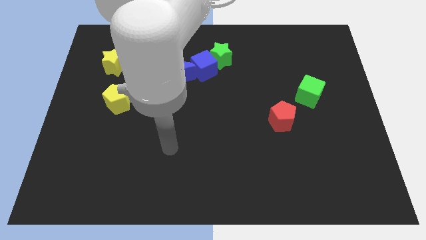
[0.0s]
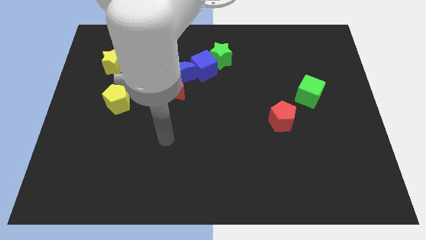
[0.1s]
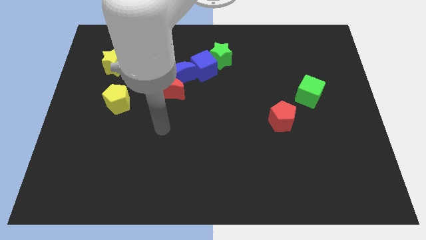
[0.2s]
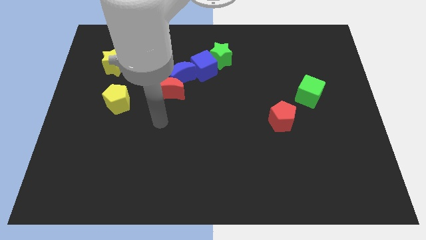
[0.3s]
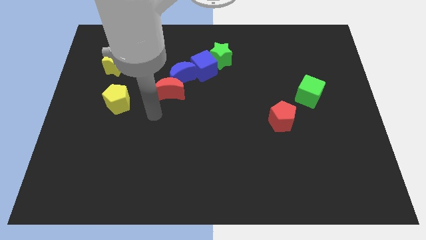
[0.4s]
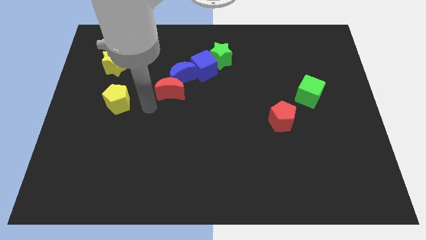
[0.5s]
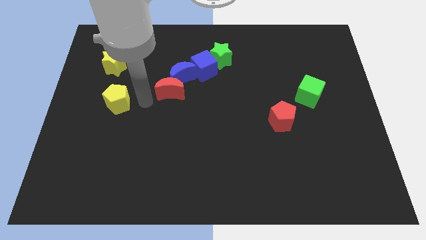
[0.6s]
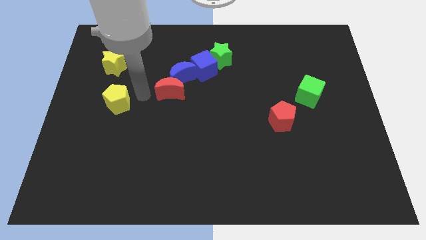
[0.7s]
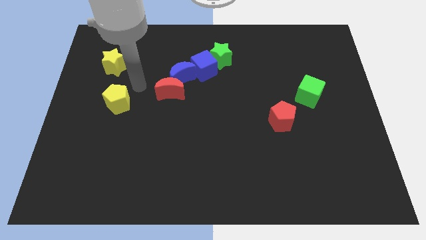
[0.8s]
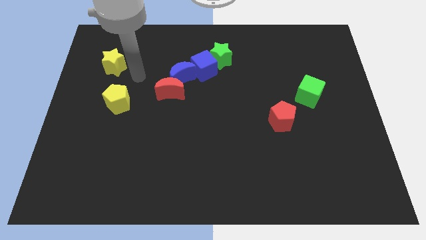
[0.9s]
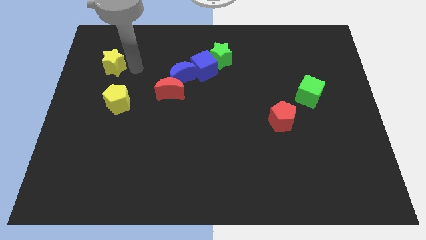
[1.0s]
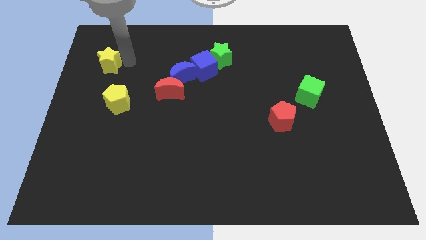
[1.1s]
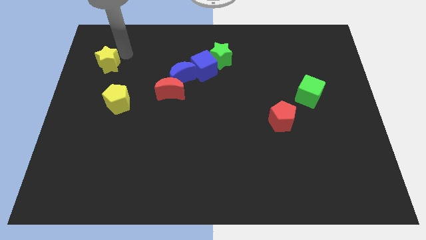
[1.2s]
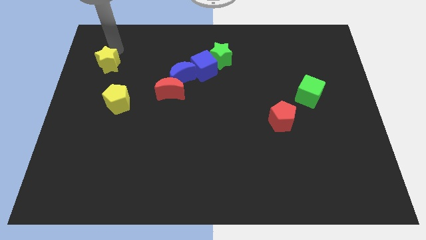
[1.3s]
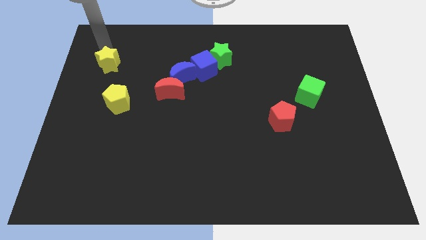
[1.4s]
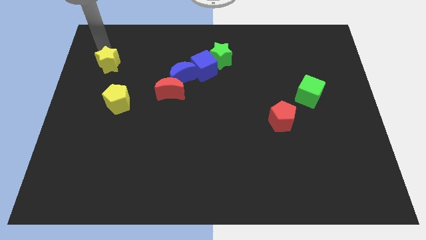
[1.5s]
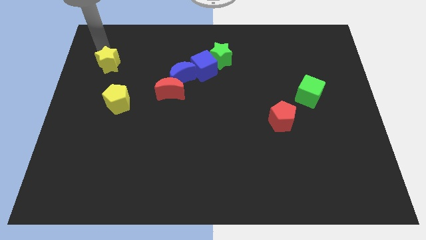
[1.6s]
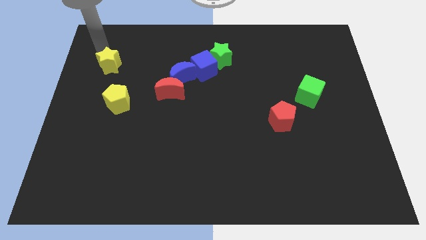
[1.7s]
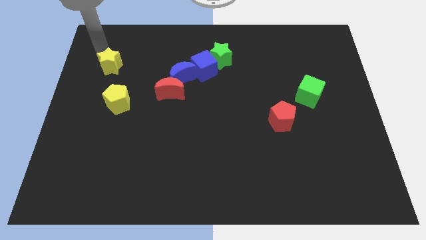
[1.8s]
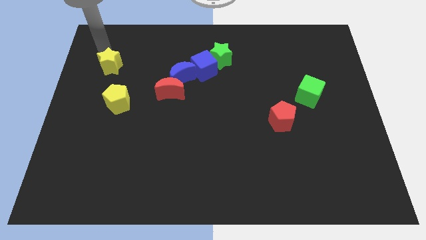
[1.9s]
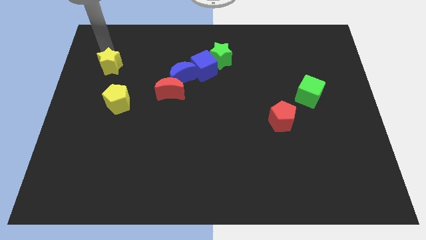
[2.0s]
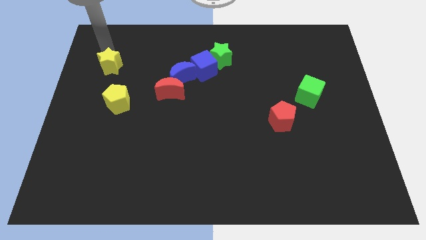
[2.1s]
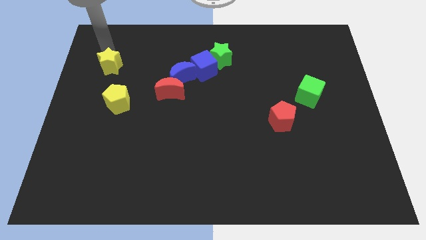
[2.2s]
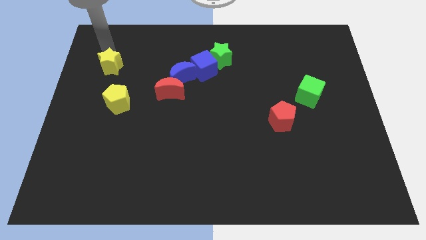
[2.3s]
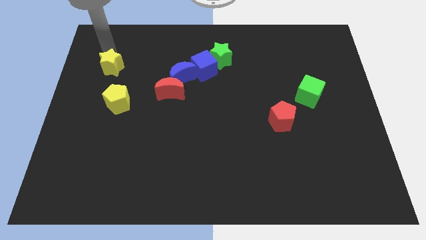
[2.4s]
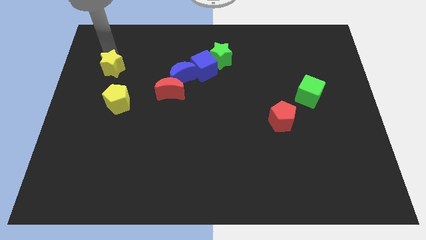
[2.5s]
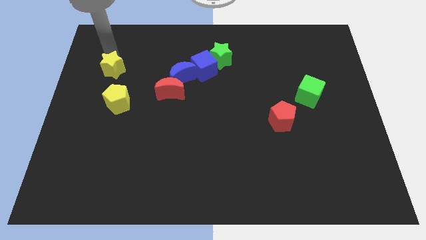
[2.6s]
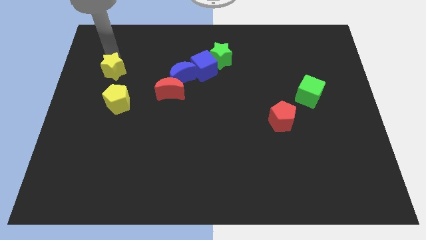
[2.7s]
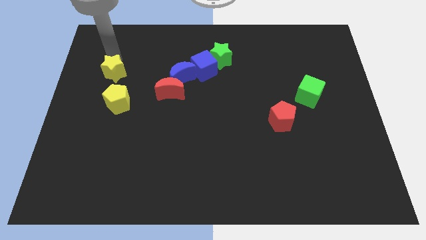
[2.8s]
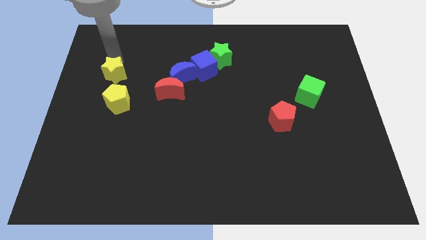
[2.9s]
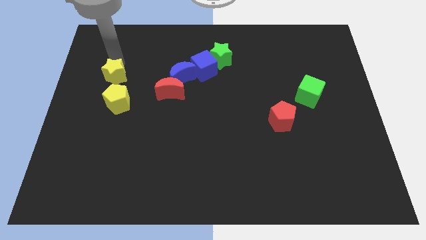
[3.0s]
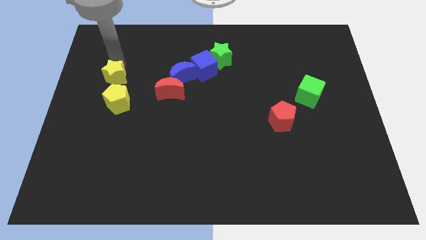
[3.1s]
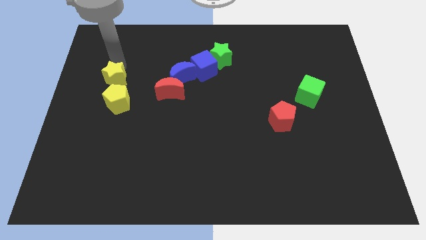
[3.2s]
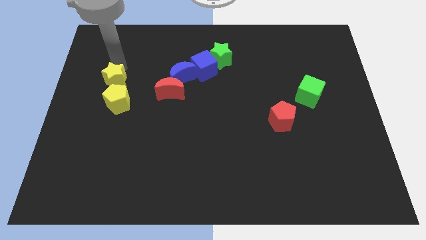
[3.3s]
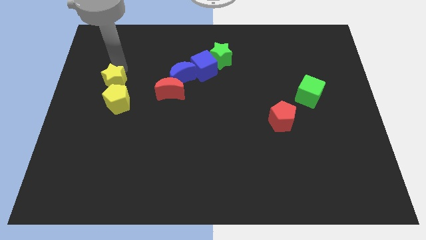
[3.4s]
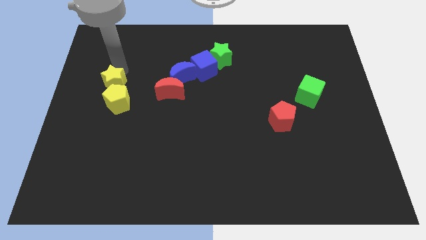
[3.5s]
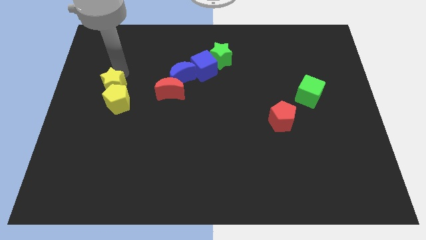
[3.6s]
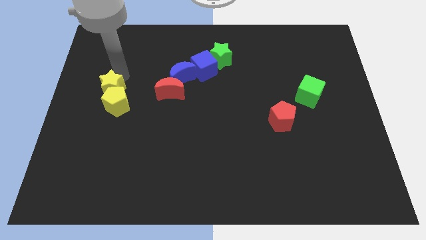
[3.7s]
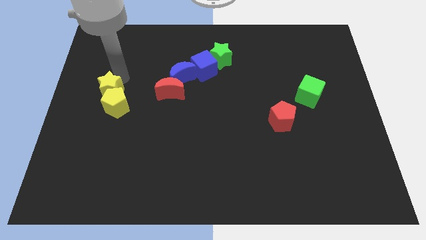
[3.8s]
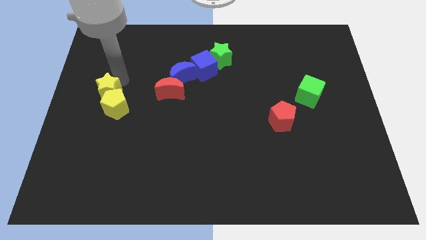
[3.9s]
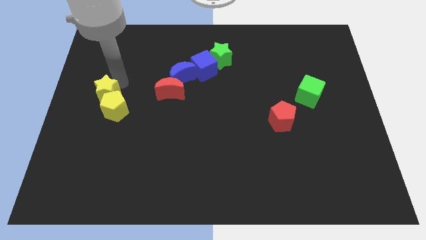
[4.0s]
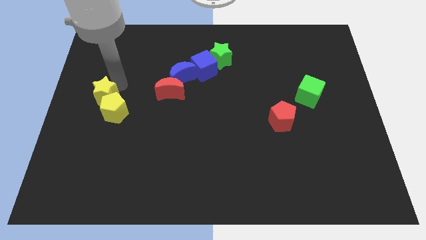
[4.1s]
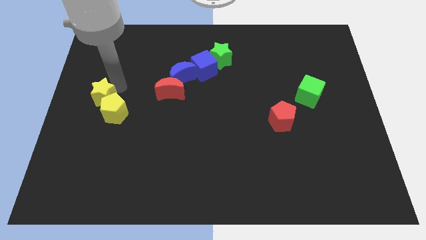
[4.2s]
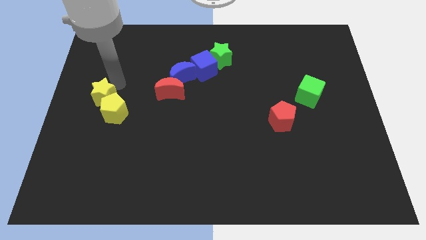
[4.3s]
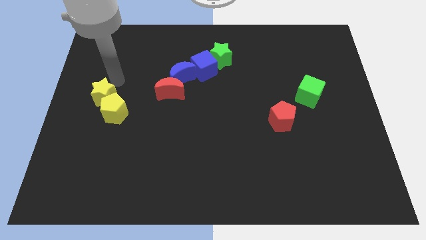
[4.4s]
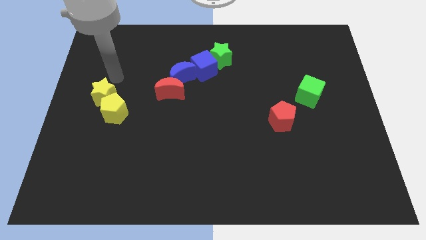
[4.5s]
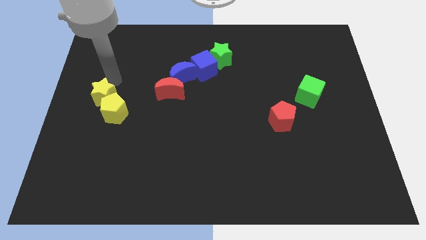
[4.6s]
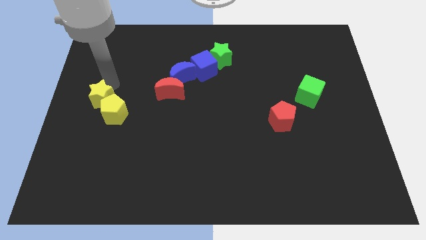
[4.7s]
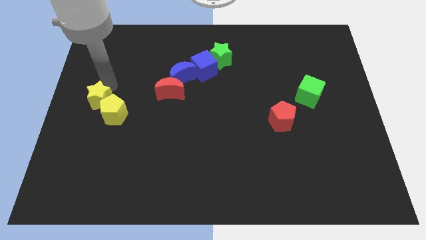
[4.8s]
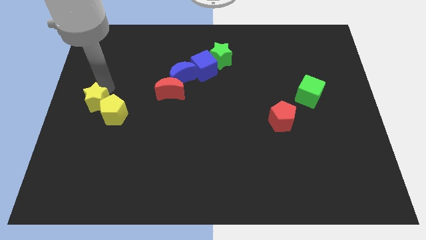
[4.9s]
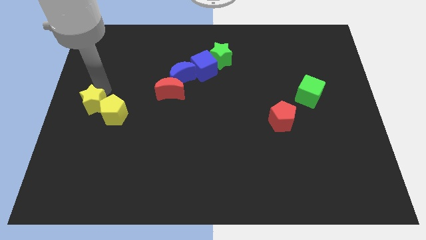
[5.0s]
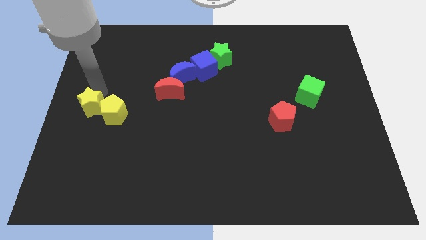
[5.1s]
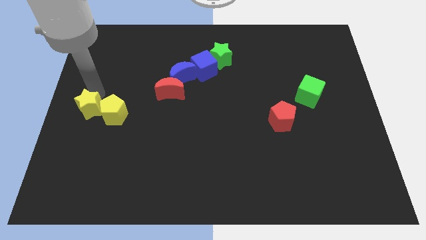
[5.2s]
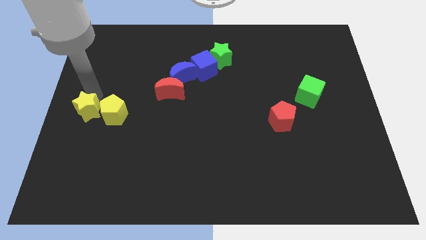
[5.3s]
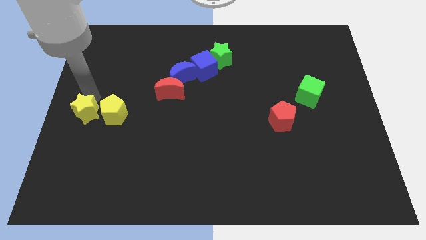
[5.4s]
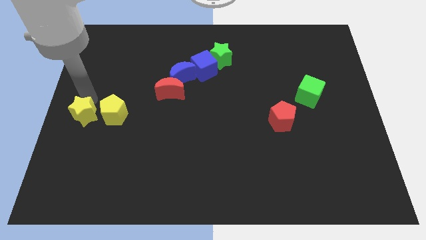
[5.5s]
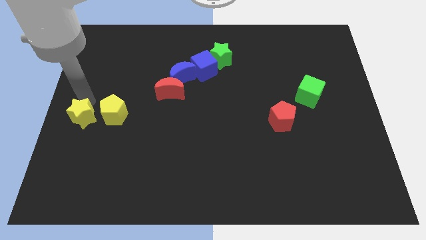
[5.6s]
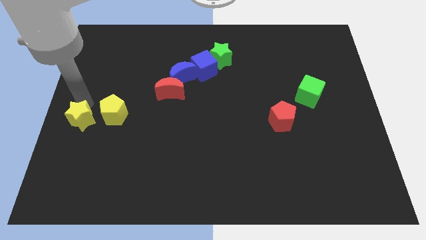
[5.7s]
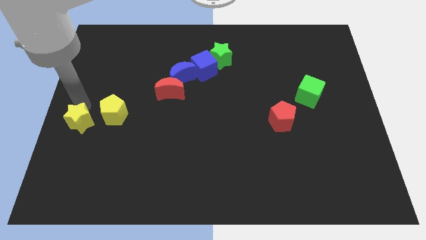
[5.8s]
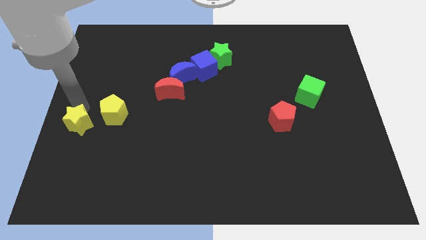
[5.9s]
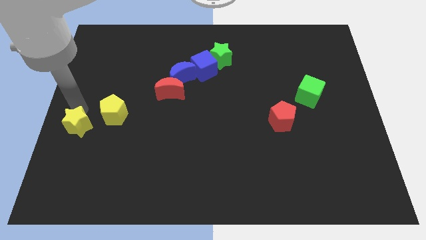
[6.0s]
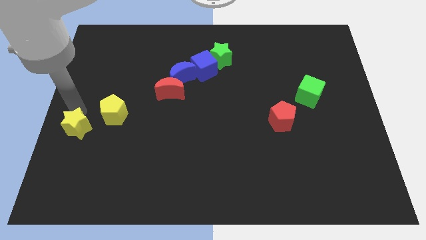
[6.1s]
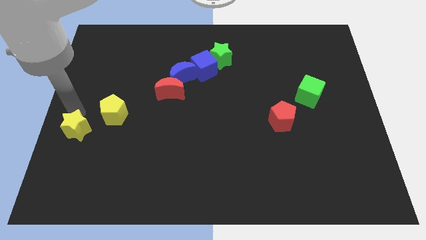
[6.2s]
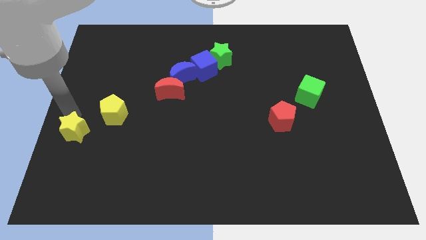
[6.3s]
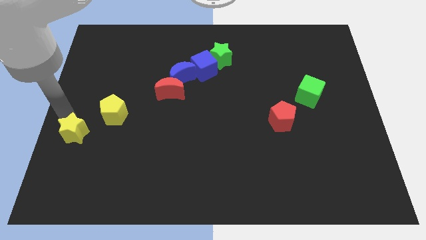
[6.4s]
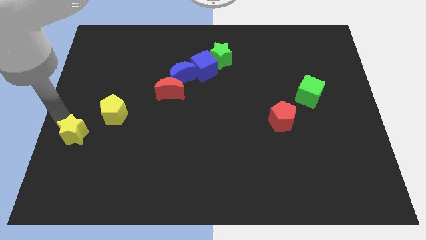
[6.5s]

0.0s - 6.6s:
move the yellow star downwards

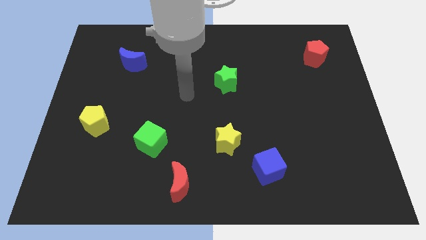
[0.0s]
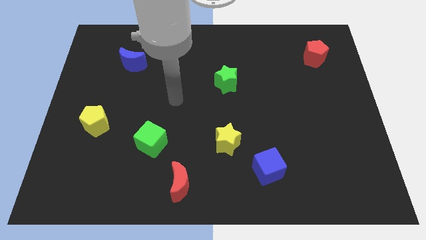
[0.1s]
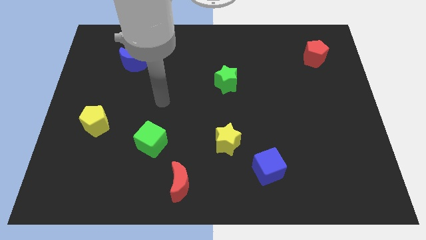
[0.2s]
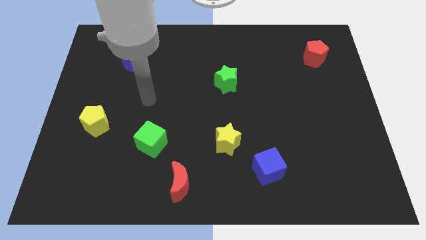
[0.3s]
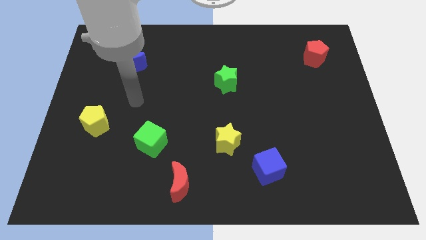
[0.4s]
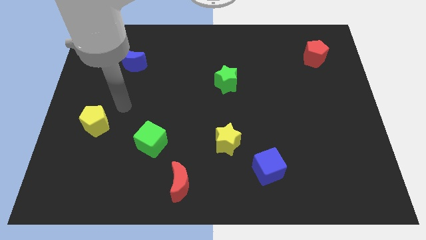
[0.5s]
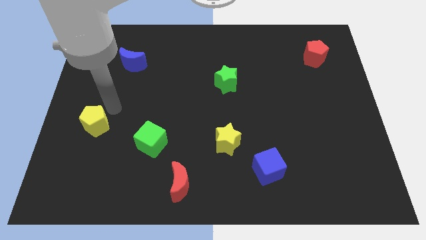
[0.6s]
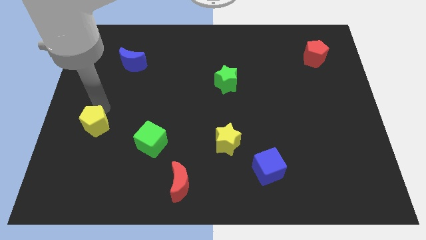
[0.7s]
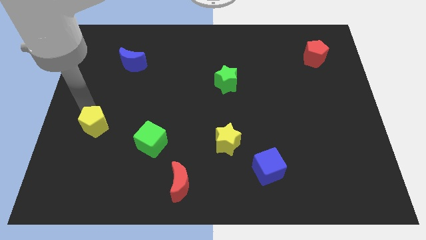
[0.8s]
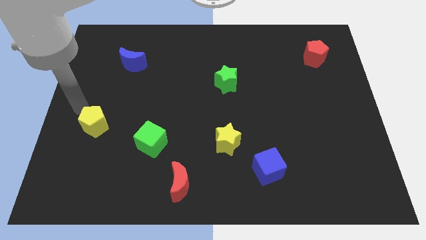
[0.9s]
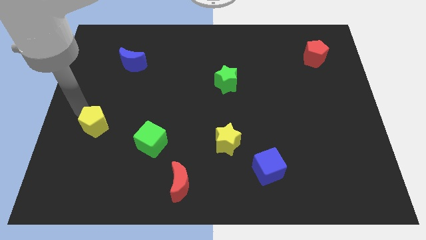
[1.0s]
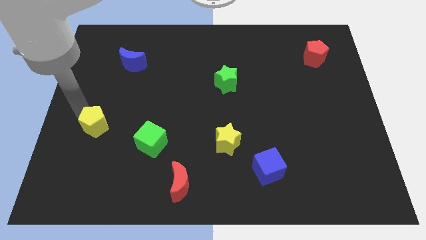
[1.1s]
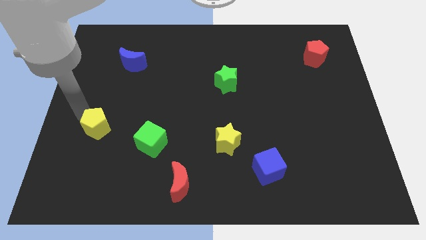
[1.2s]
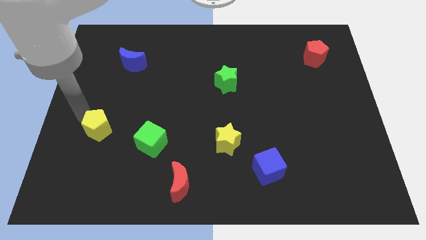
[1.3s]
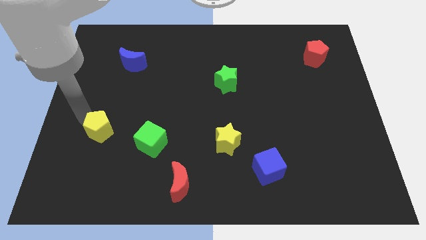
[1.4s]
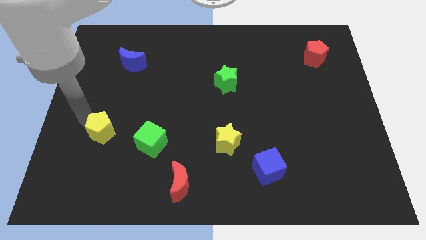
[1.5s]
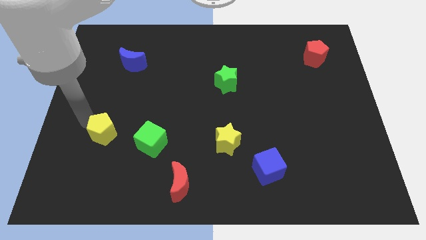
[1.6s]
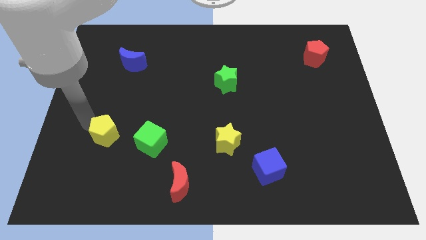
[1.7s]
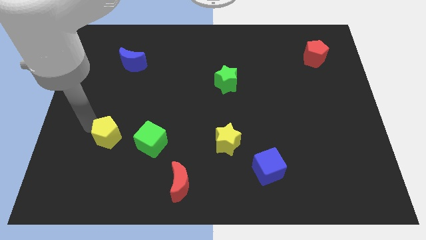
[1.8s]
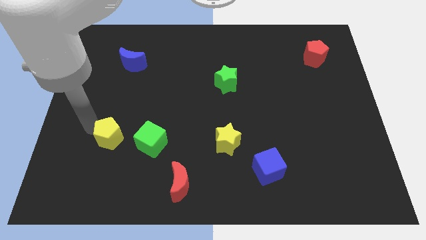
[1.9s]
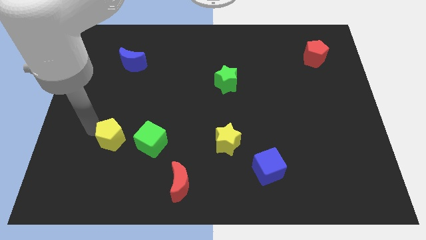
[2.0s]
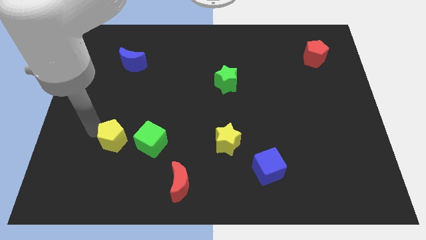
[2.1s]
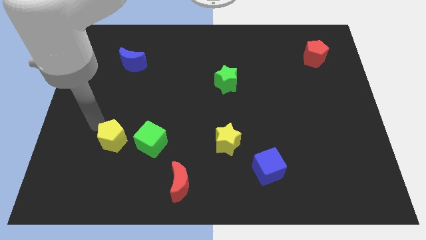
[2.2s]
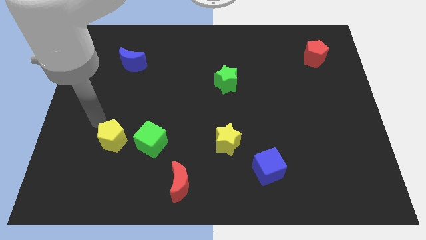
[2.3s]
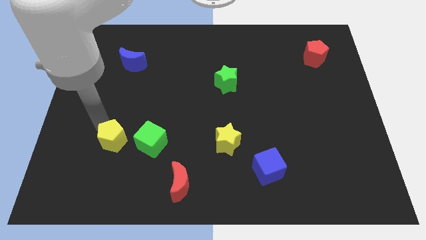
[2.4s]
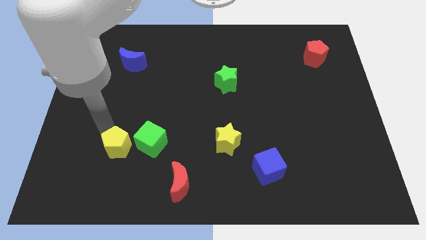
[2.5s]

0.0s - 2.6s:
slightly move the yellow pentagon down and right diagonally
